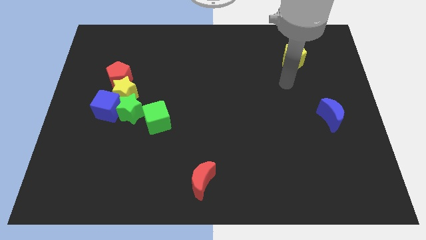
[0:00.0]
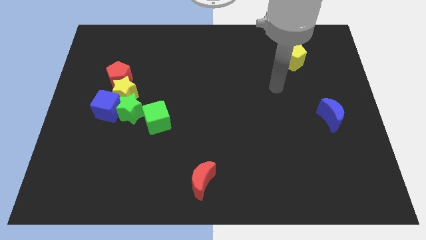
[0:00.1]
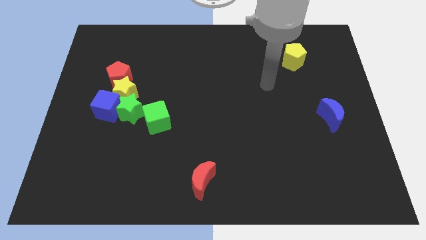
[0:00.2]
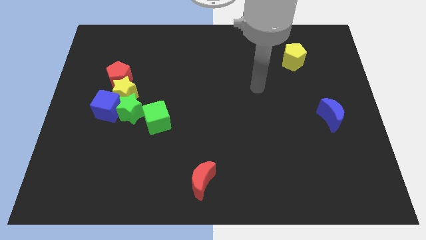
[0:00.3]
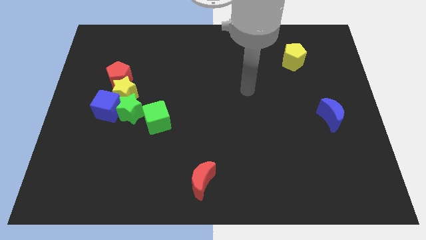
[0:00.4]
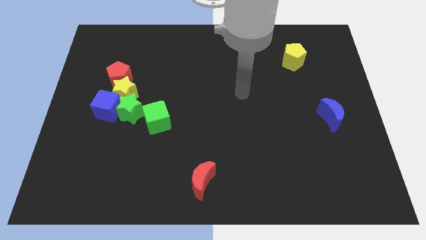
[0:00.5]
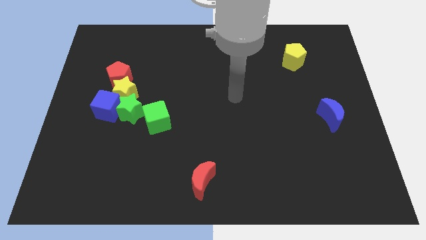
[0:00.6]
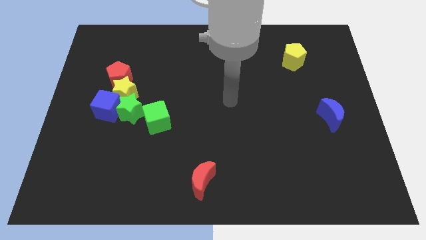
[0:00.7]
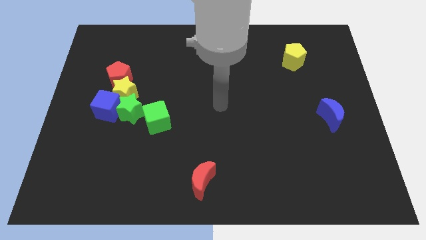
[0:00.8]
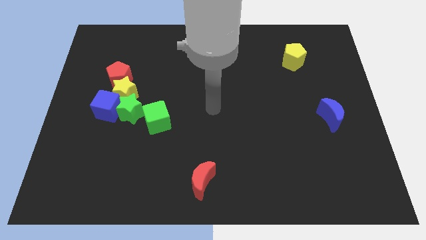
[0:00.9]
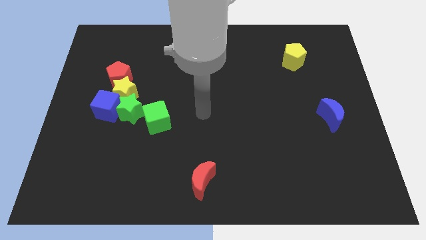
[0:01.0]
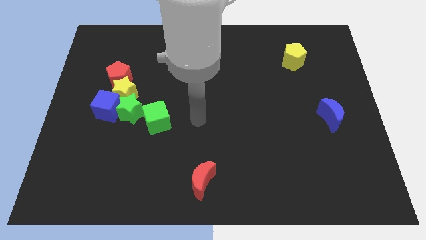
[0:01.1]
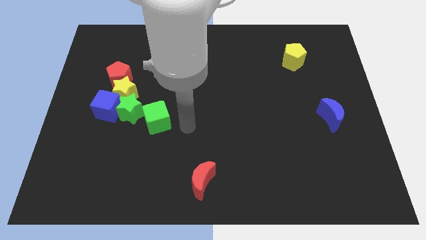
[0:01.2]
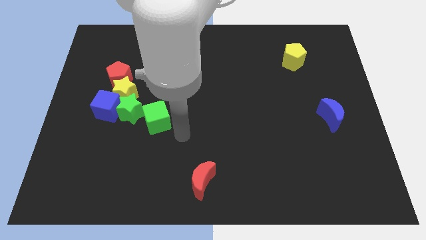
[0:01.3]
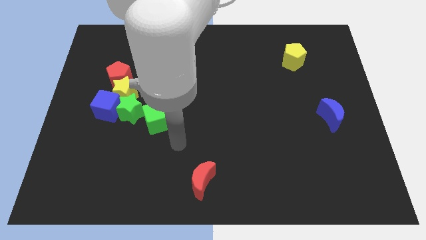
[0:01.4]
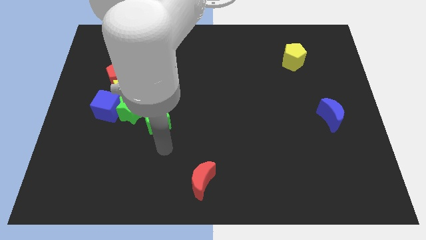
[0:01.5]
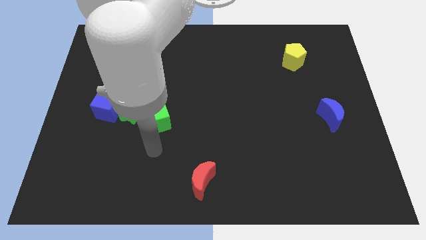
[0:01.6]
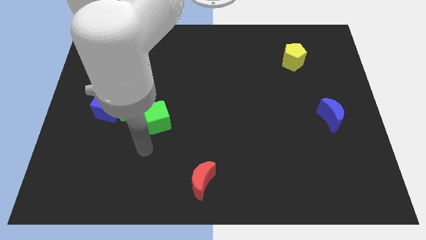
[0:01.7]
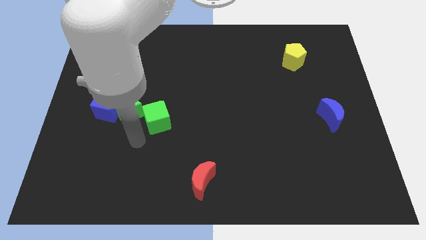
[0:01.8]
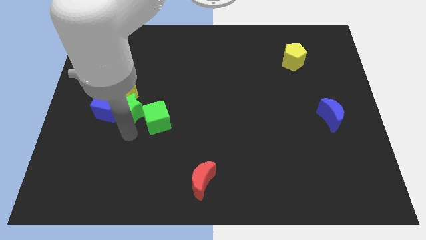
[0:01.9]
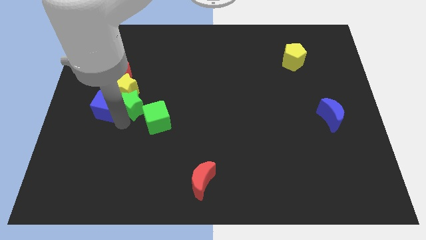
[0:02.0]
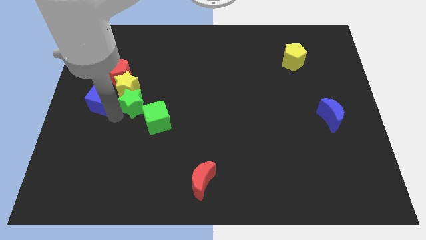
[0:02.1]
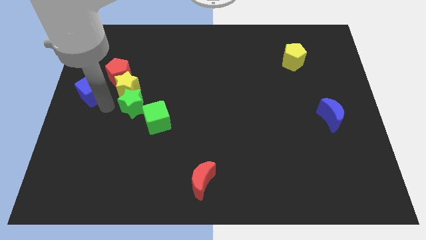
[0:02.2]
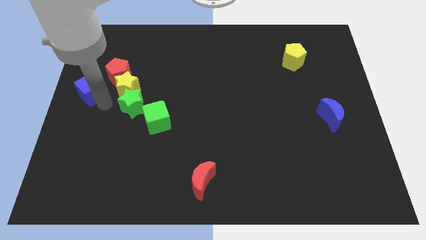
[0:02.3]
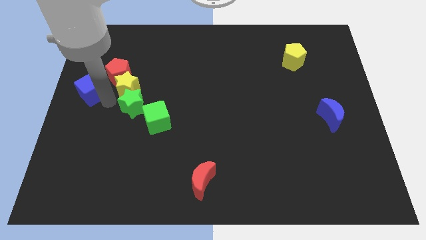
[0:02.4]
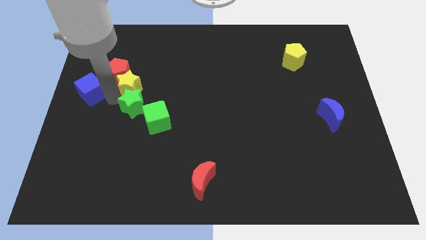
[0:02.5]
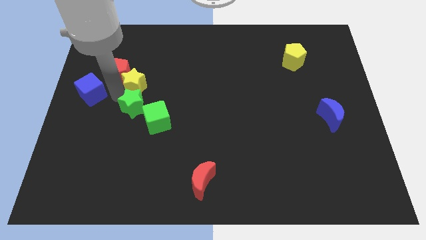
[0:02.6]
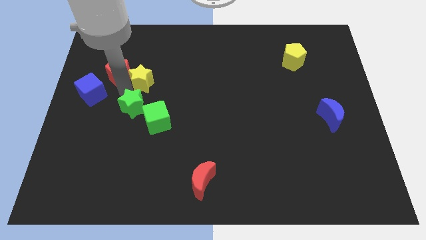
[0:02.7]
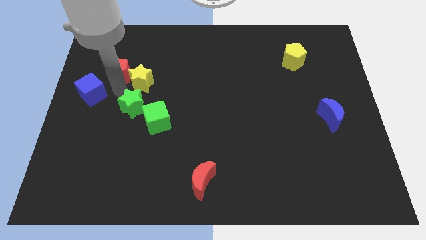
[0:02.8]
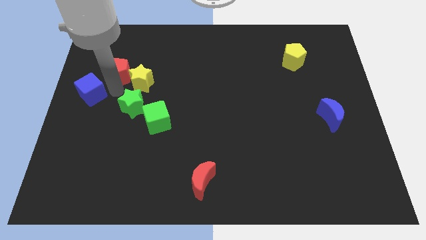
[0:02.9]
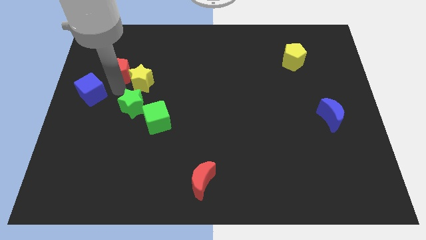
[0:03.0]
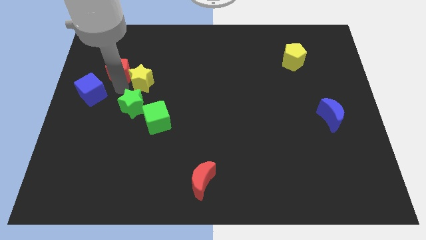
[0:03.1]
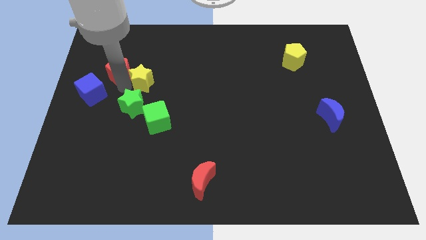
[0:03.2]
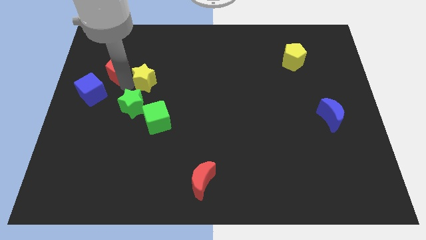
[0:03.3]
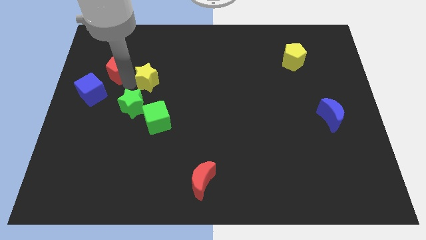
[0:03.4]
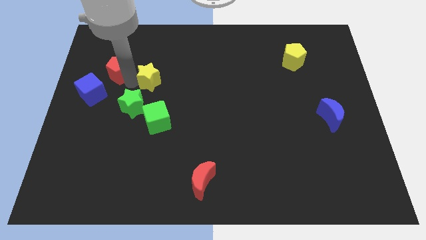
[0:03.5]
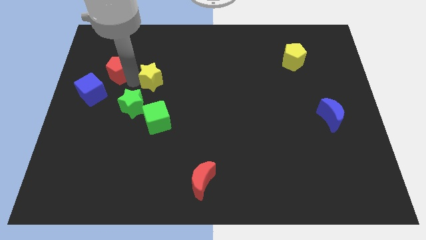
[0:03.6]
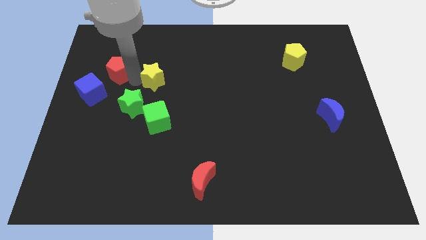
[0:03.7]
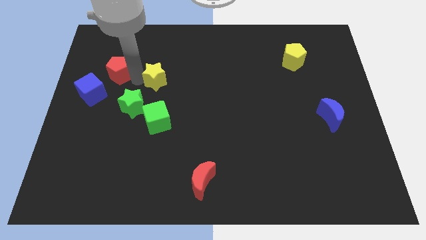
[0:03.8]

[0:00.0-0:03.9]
move the yellow star away from the blue cube, green star, and red pentagon

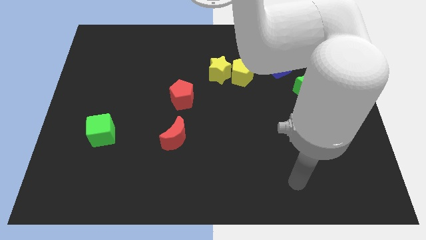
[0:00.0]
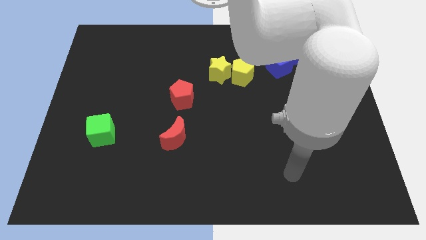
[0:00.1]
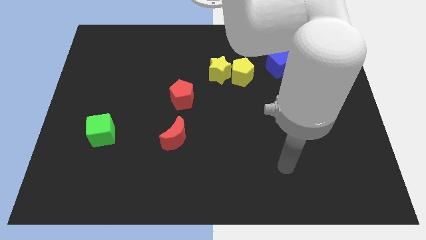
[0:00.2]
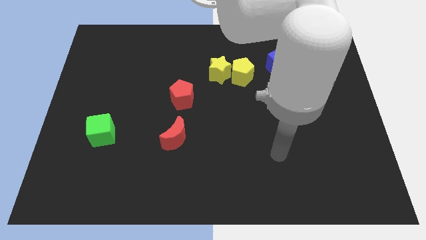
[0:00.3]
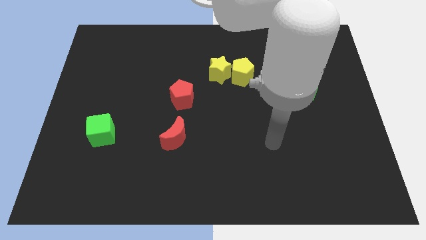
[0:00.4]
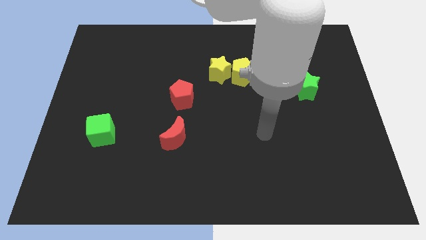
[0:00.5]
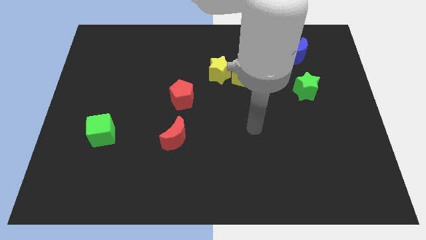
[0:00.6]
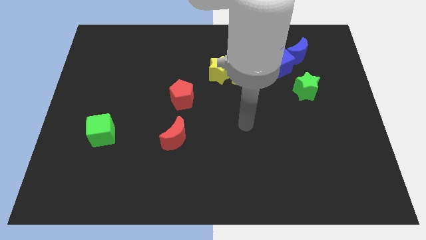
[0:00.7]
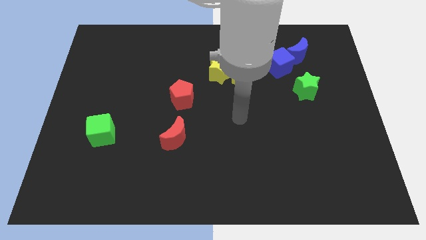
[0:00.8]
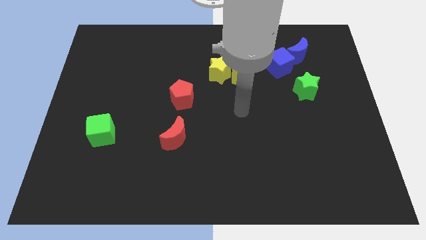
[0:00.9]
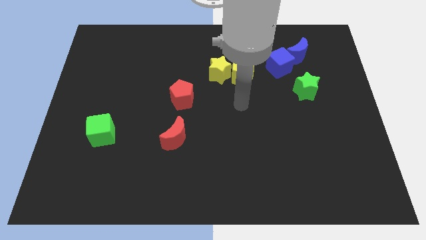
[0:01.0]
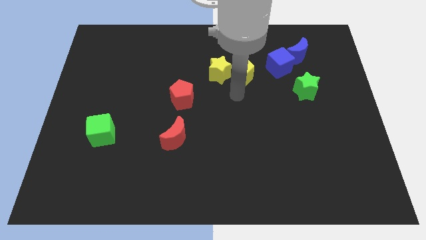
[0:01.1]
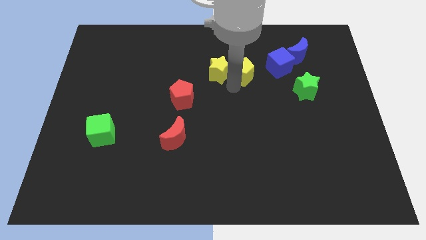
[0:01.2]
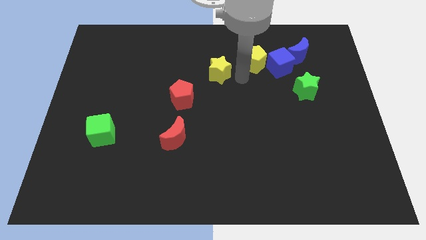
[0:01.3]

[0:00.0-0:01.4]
pull the yellow star apart from the yellow pentagon

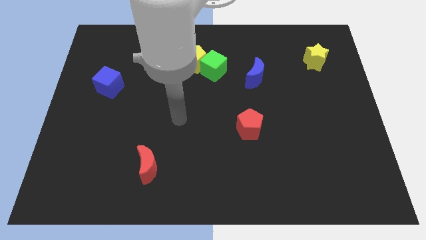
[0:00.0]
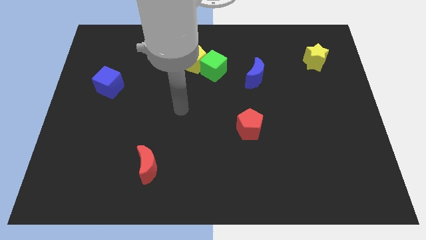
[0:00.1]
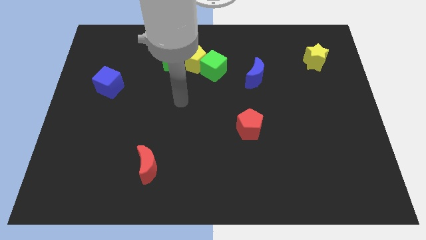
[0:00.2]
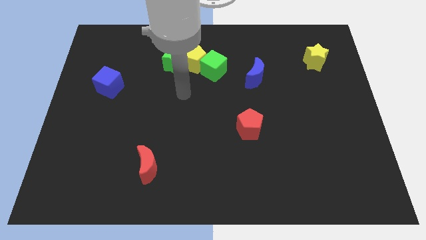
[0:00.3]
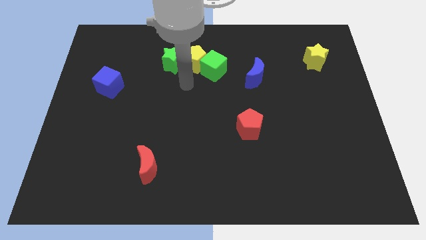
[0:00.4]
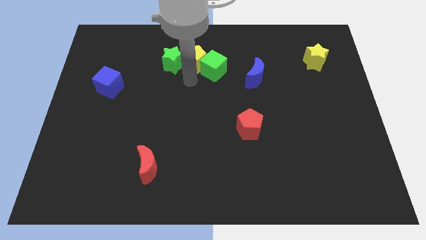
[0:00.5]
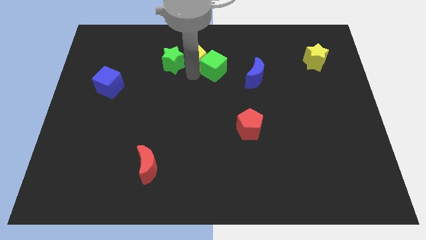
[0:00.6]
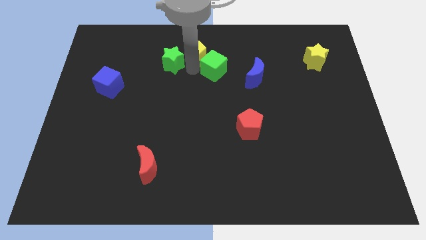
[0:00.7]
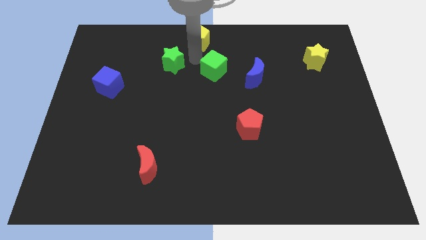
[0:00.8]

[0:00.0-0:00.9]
pull the green cube apart from the yellow pentagon

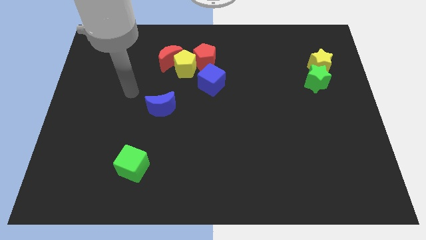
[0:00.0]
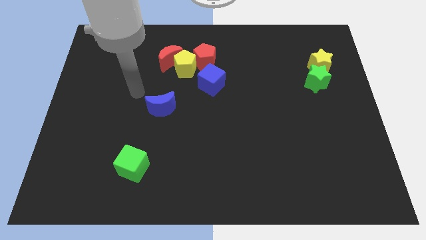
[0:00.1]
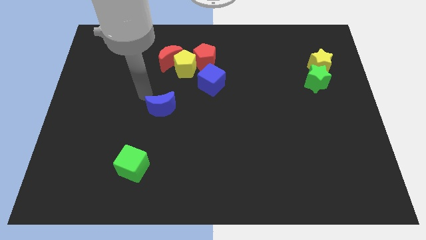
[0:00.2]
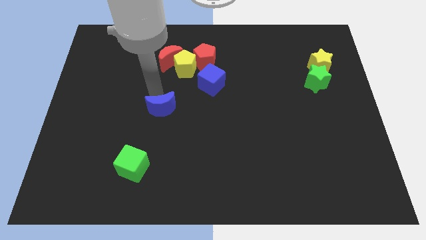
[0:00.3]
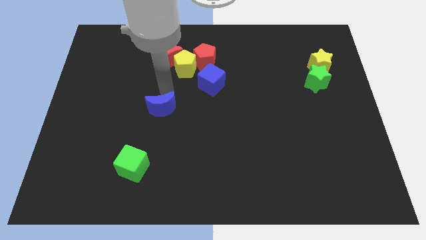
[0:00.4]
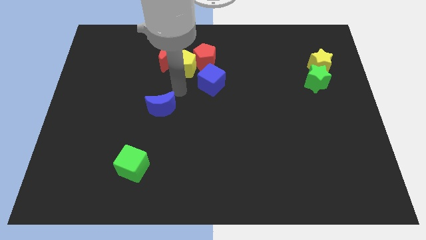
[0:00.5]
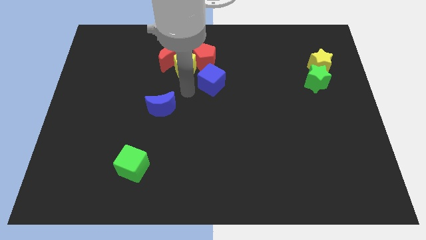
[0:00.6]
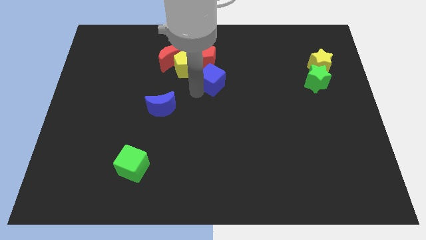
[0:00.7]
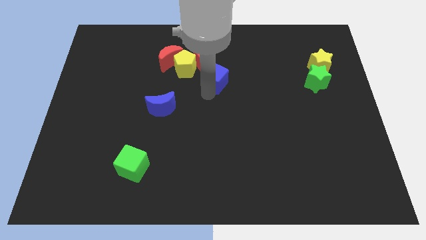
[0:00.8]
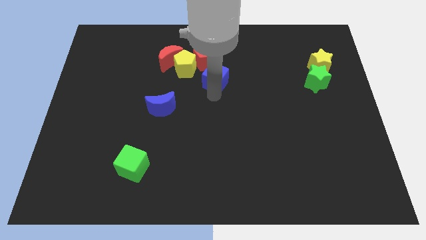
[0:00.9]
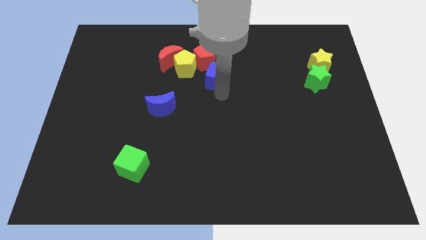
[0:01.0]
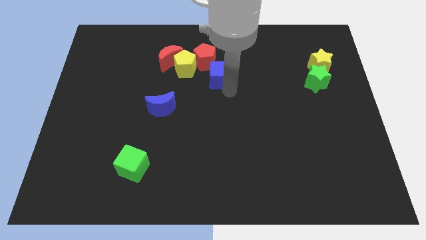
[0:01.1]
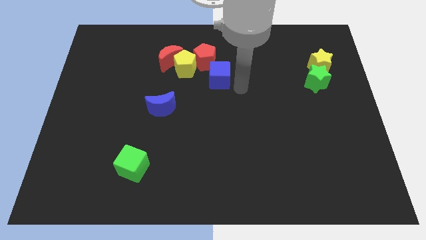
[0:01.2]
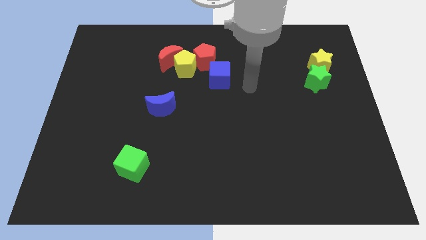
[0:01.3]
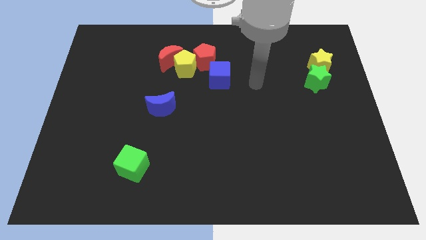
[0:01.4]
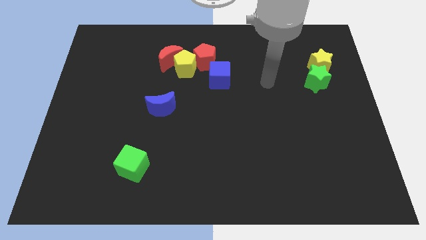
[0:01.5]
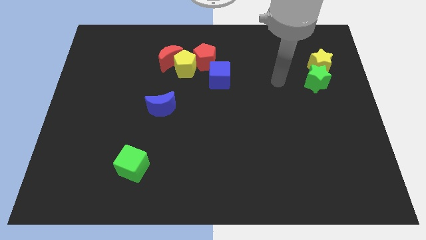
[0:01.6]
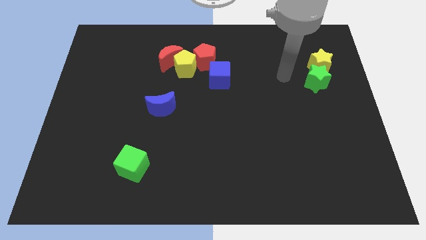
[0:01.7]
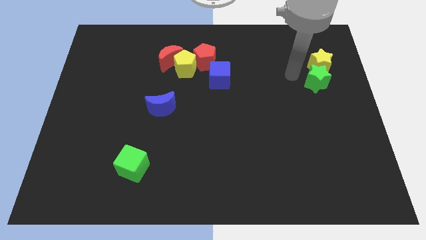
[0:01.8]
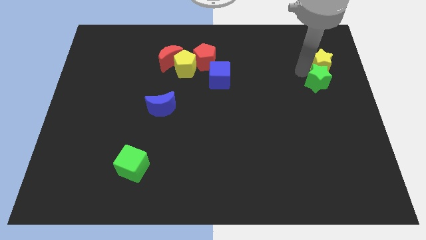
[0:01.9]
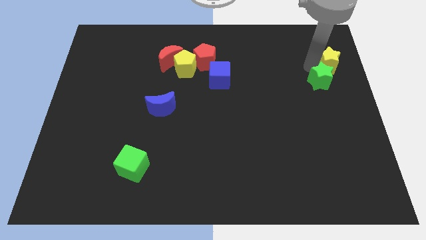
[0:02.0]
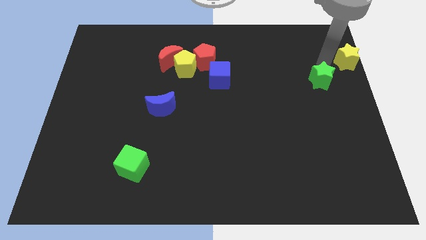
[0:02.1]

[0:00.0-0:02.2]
move the green star away from the yellow star

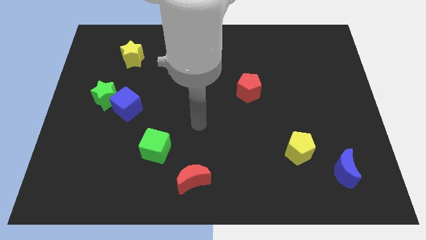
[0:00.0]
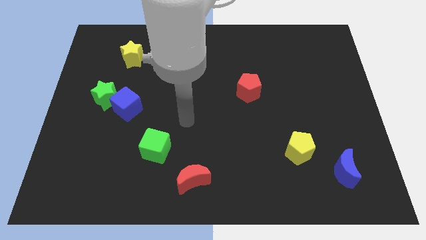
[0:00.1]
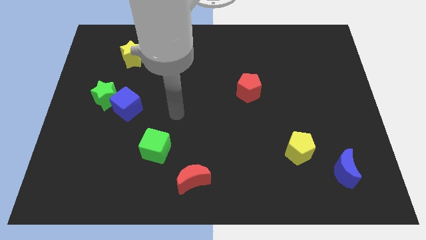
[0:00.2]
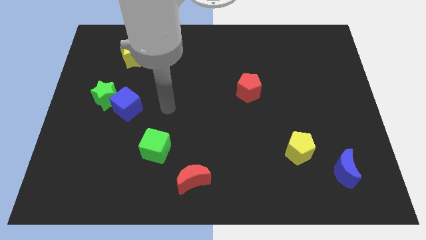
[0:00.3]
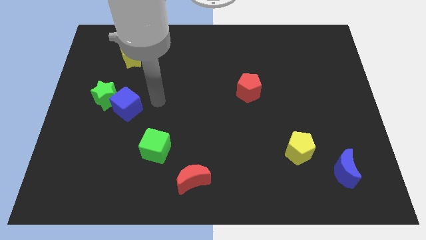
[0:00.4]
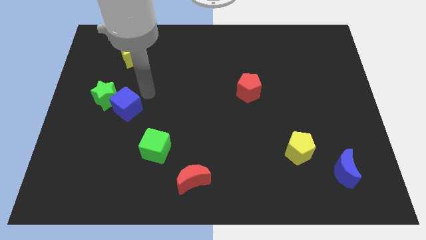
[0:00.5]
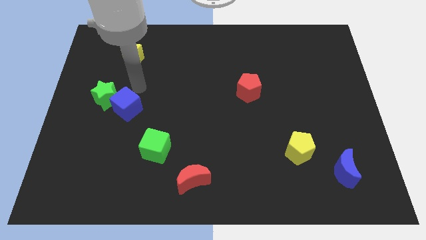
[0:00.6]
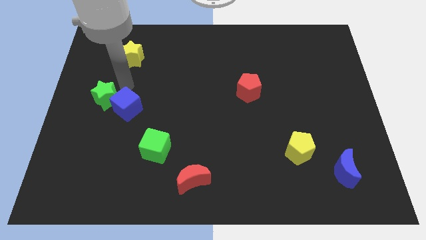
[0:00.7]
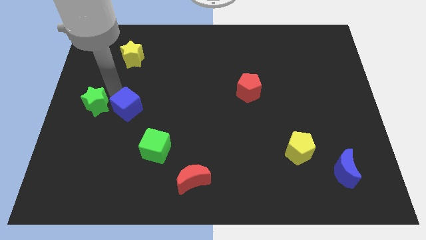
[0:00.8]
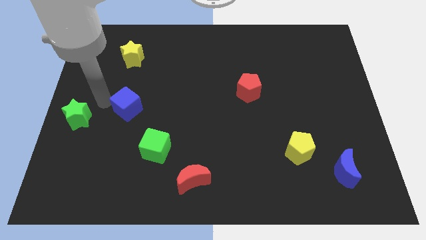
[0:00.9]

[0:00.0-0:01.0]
separate the blue cube from the green star
